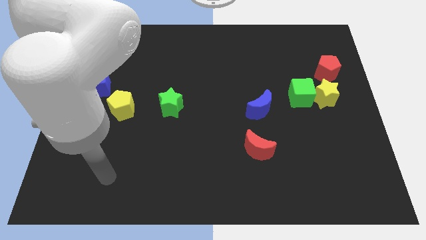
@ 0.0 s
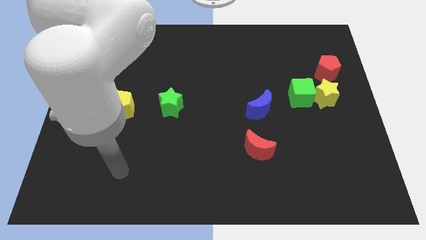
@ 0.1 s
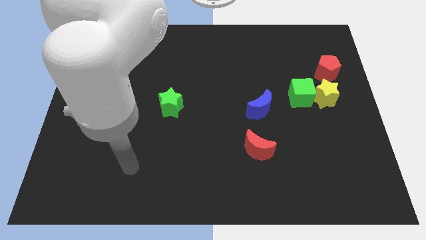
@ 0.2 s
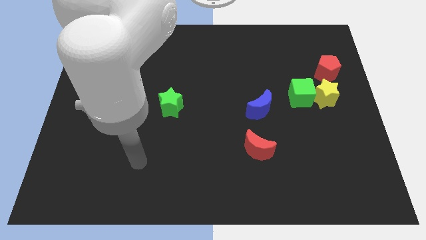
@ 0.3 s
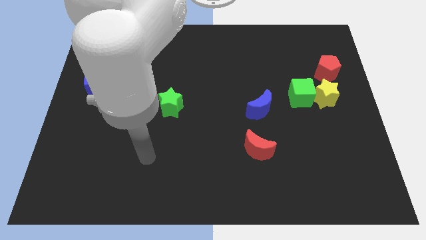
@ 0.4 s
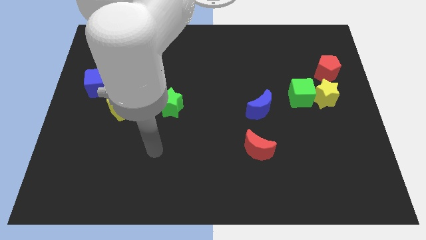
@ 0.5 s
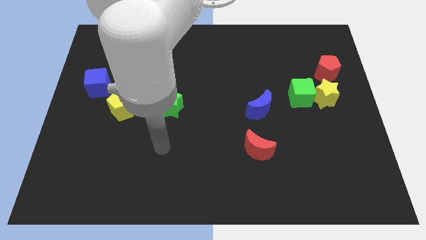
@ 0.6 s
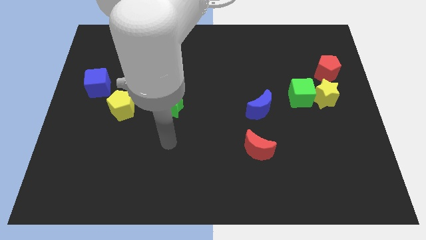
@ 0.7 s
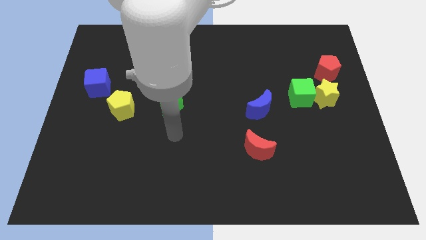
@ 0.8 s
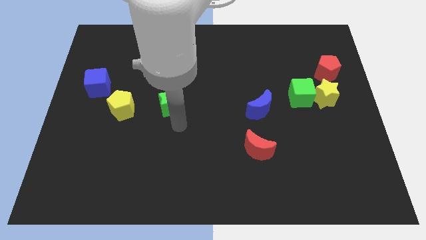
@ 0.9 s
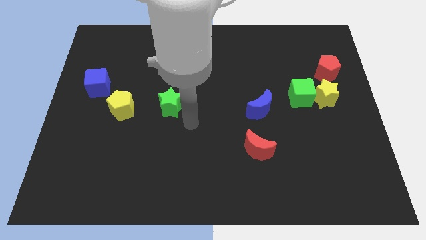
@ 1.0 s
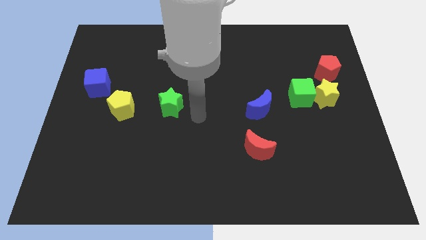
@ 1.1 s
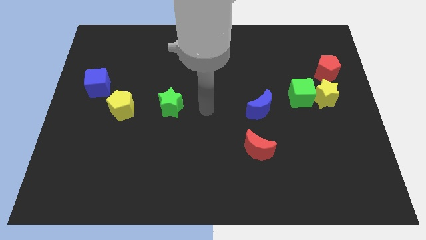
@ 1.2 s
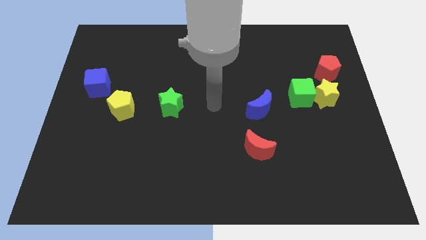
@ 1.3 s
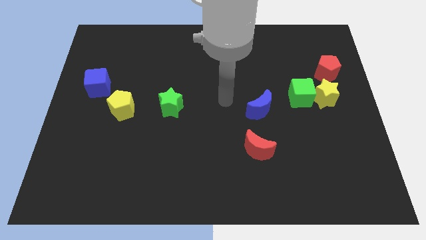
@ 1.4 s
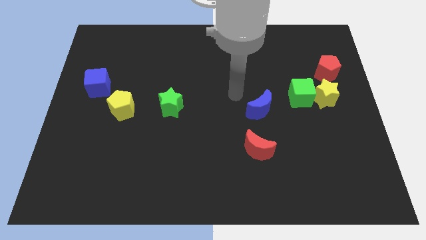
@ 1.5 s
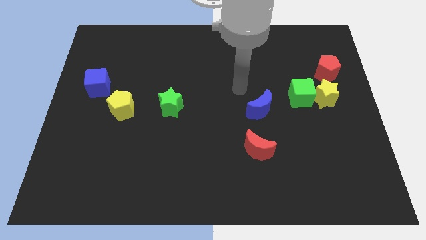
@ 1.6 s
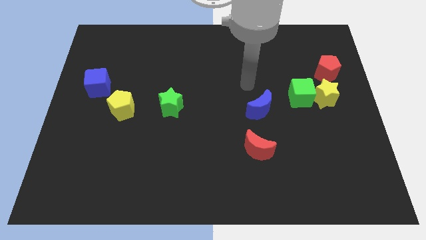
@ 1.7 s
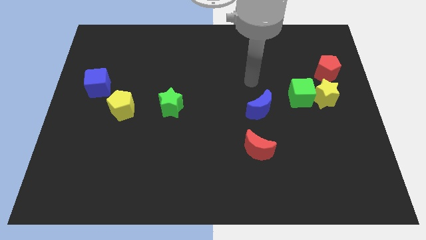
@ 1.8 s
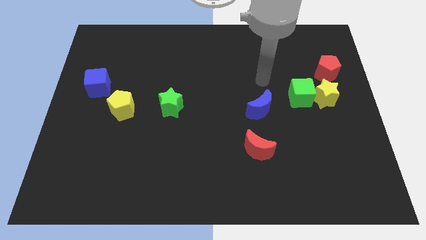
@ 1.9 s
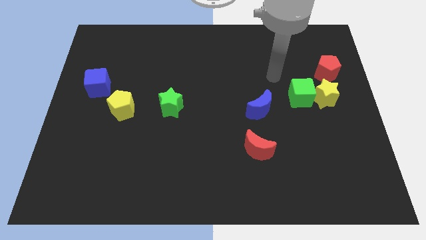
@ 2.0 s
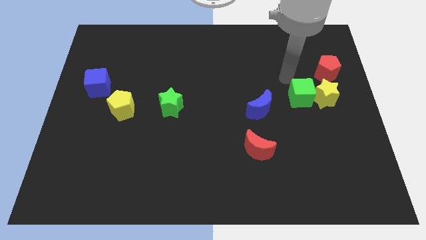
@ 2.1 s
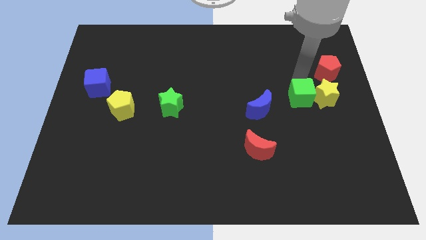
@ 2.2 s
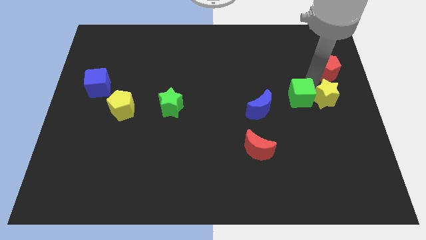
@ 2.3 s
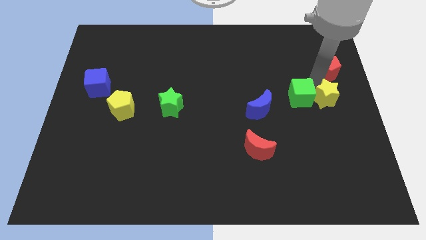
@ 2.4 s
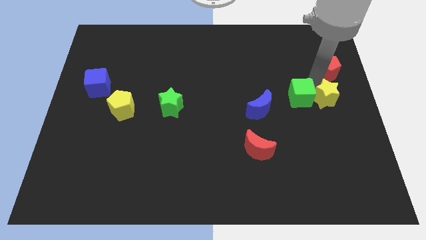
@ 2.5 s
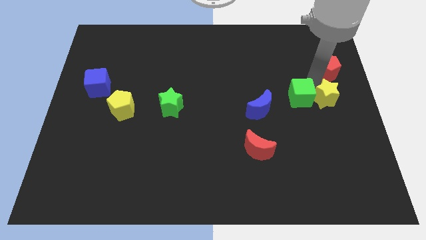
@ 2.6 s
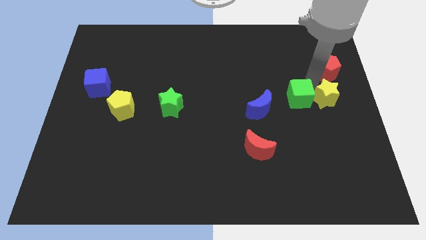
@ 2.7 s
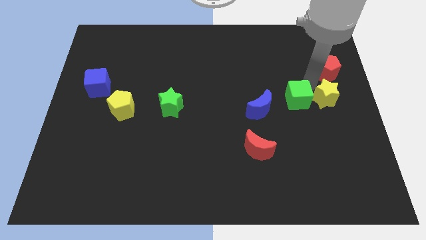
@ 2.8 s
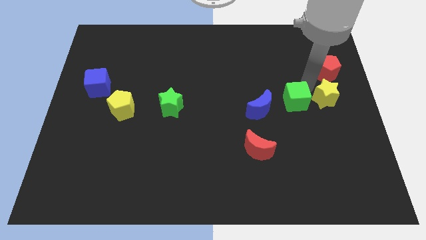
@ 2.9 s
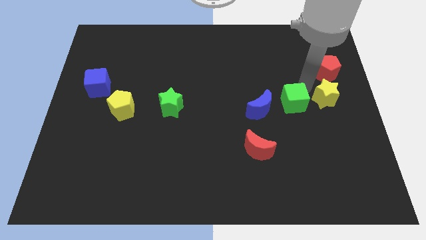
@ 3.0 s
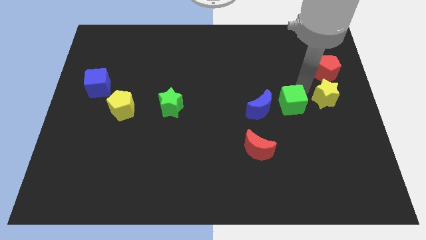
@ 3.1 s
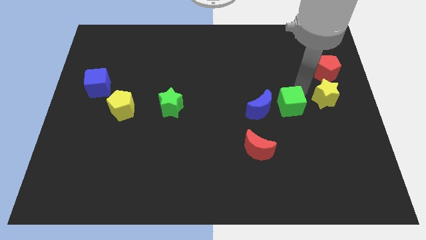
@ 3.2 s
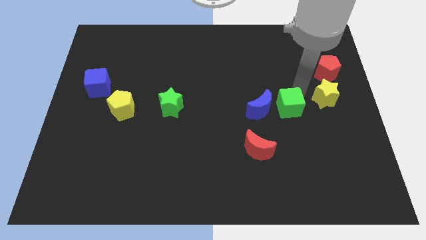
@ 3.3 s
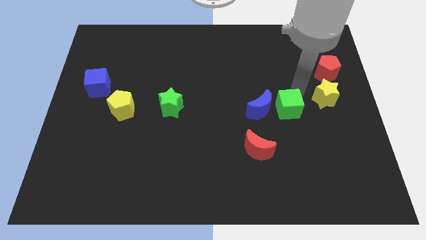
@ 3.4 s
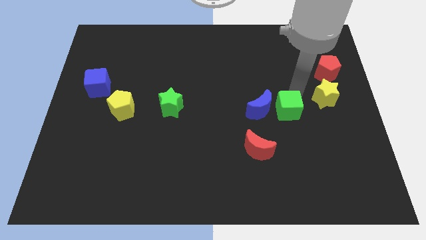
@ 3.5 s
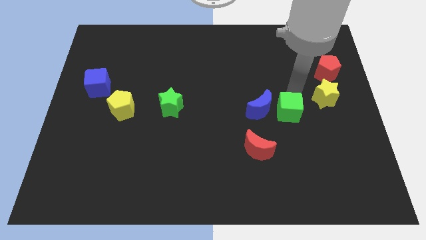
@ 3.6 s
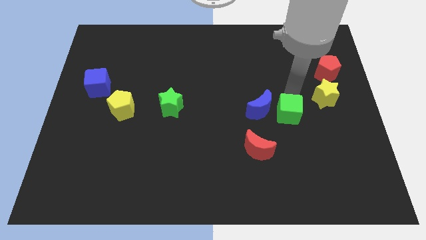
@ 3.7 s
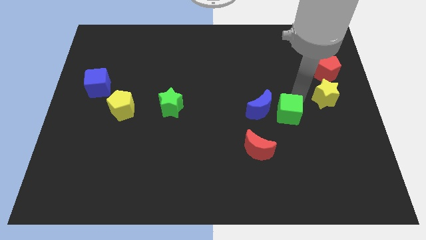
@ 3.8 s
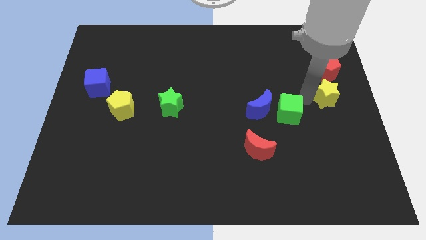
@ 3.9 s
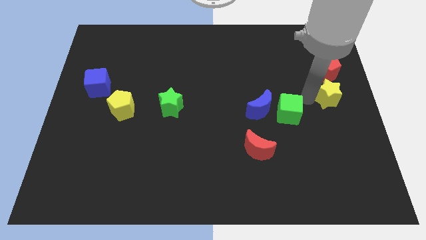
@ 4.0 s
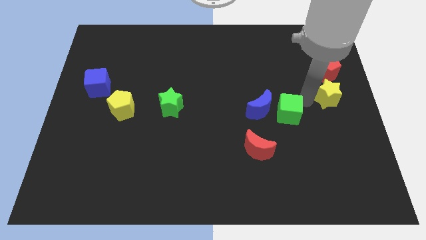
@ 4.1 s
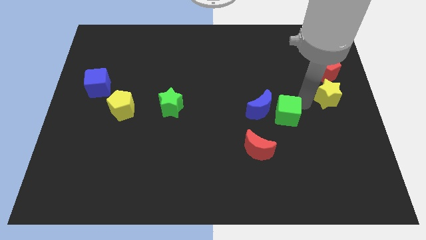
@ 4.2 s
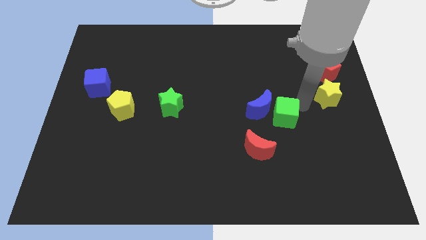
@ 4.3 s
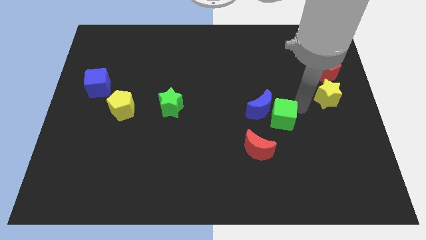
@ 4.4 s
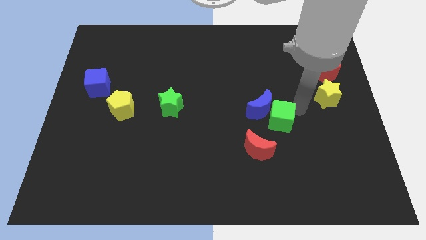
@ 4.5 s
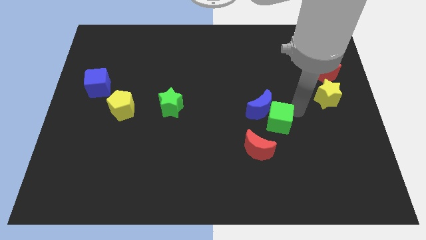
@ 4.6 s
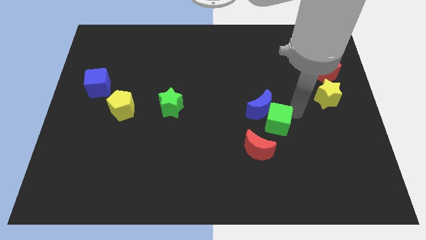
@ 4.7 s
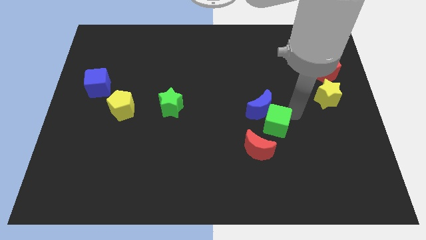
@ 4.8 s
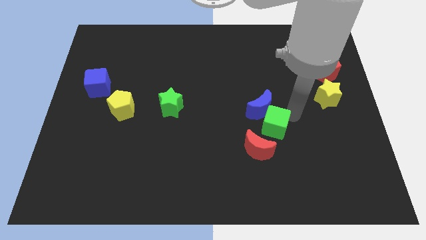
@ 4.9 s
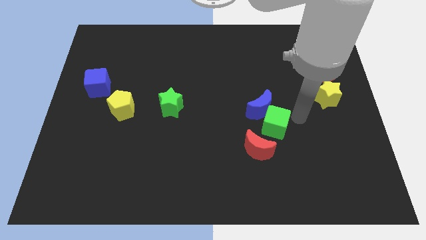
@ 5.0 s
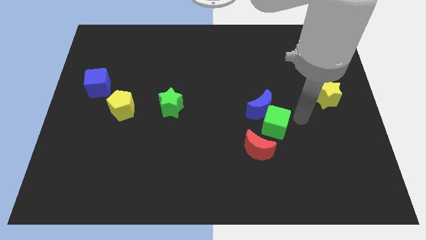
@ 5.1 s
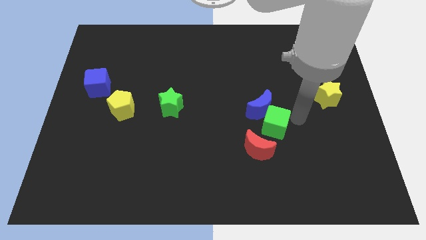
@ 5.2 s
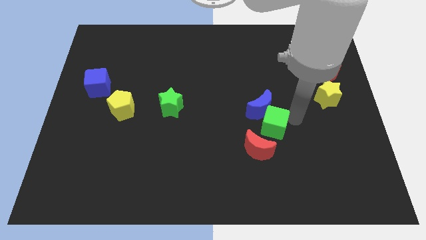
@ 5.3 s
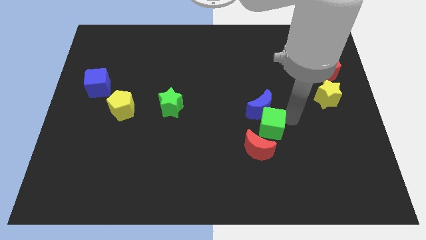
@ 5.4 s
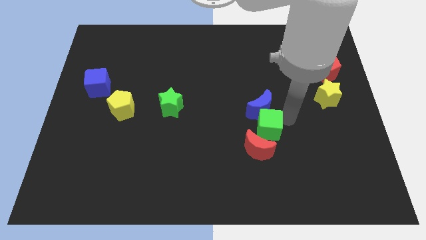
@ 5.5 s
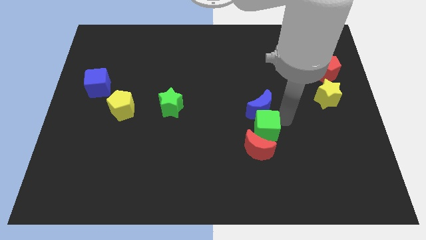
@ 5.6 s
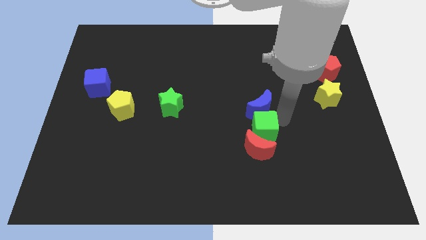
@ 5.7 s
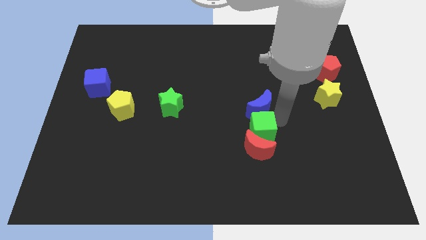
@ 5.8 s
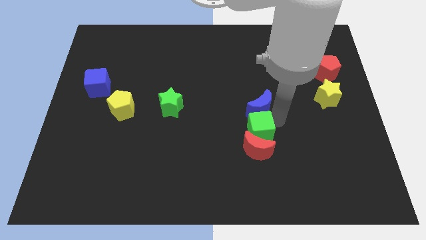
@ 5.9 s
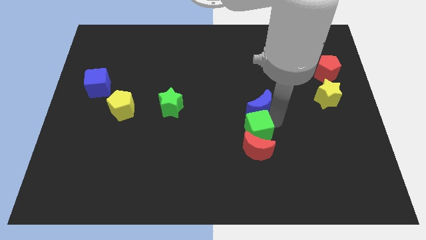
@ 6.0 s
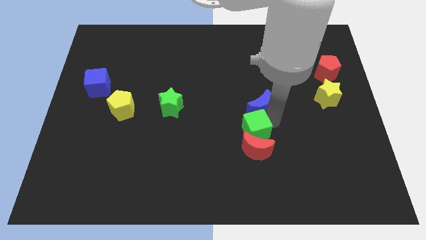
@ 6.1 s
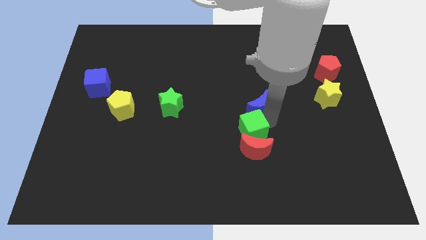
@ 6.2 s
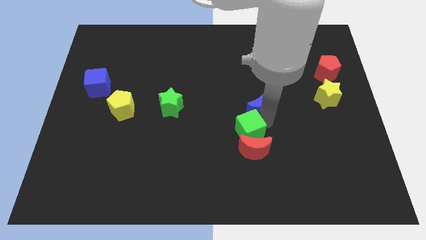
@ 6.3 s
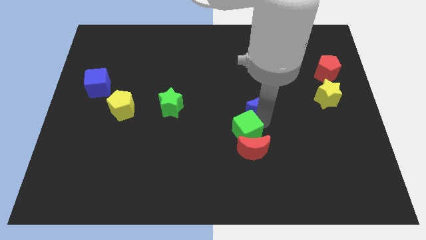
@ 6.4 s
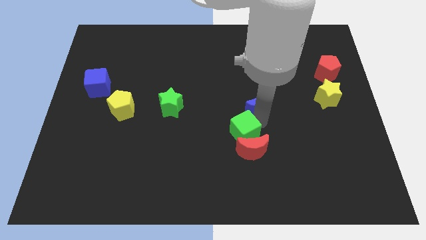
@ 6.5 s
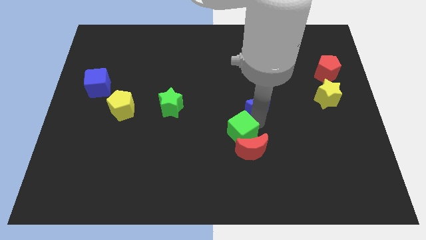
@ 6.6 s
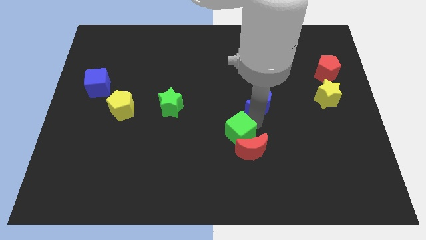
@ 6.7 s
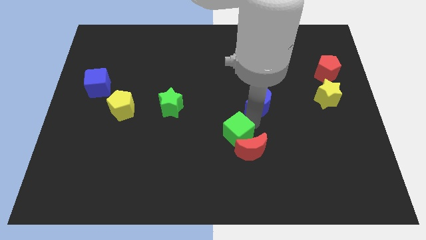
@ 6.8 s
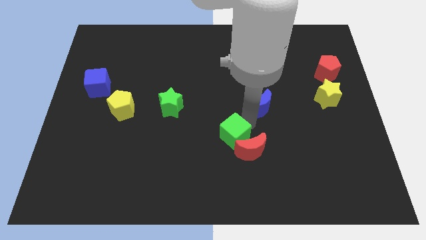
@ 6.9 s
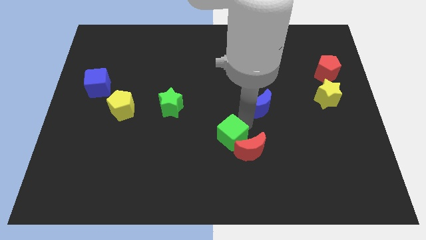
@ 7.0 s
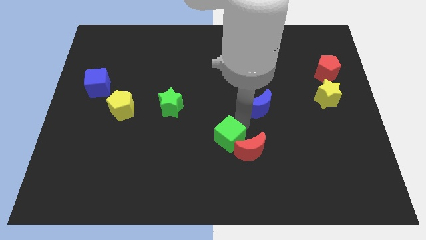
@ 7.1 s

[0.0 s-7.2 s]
slide the green cube downwards and to the left

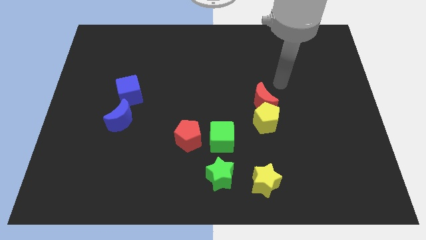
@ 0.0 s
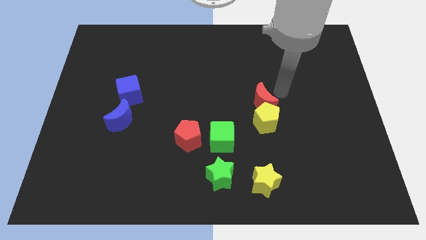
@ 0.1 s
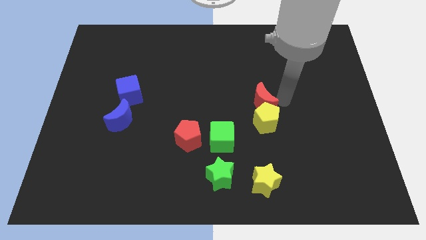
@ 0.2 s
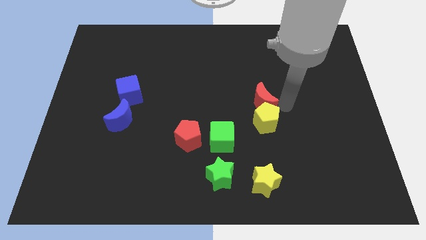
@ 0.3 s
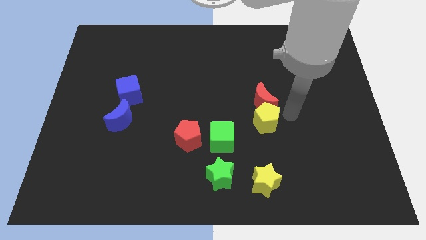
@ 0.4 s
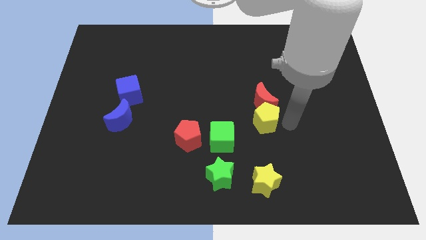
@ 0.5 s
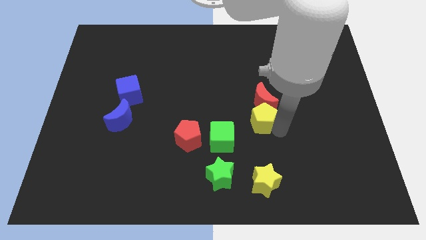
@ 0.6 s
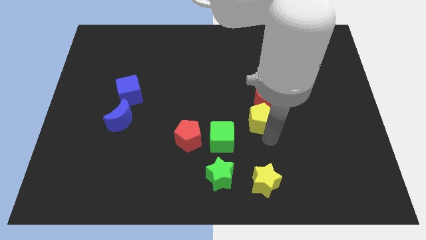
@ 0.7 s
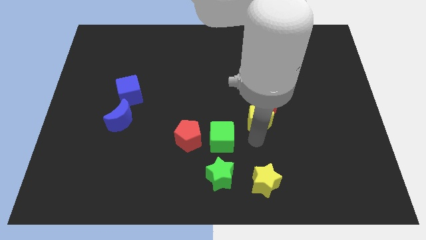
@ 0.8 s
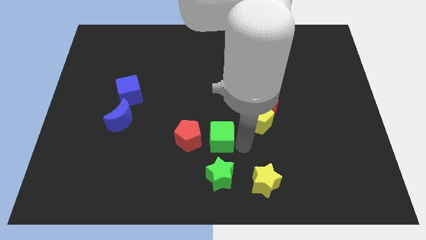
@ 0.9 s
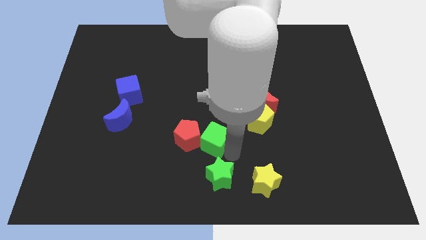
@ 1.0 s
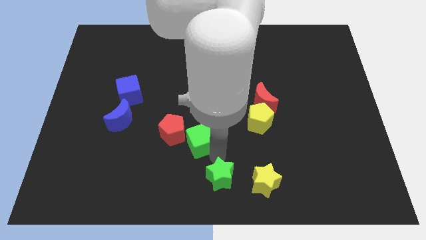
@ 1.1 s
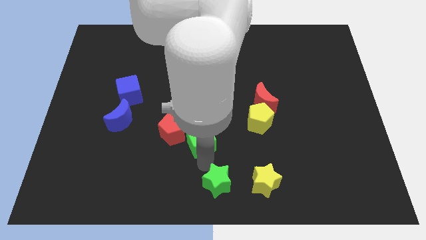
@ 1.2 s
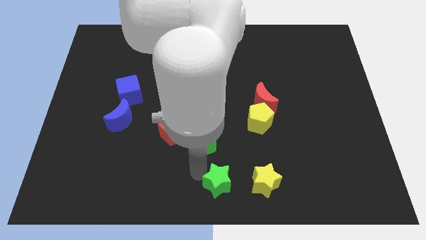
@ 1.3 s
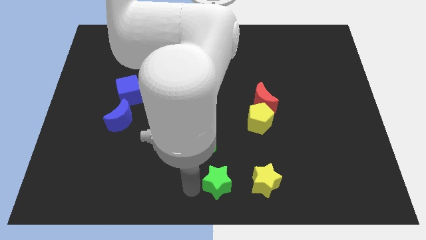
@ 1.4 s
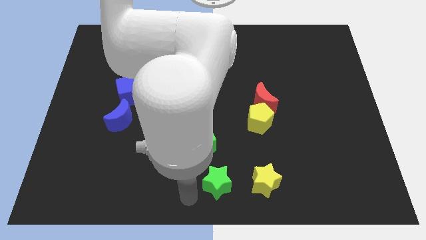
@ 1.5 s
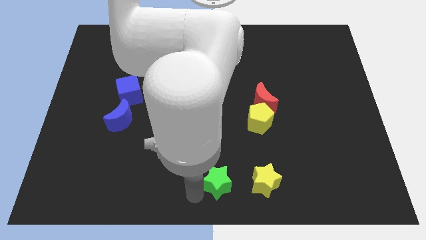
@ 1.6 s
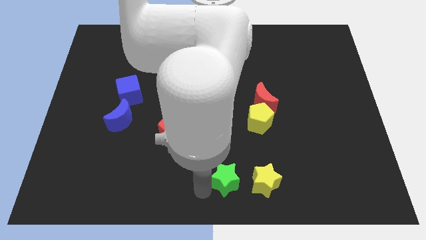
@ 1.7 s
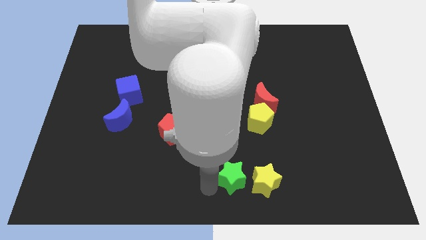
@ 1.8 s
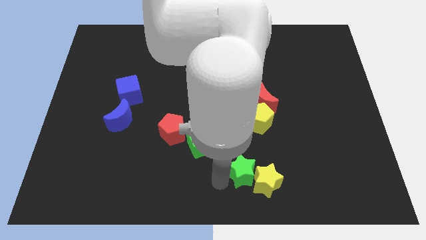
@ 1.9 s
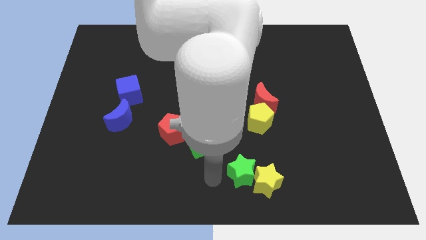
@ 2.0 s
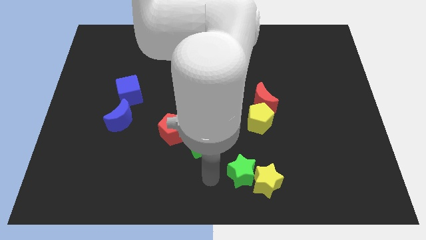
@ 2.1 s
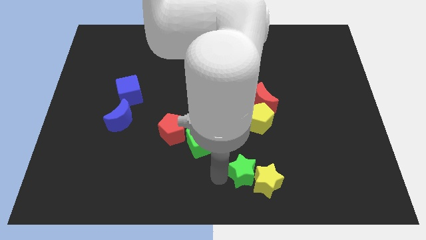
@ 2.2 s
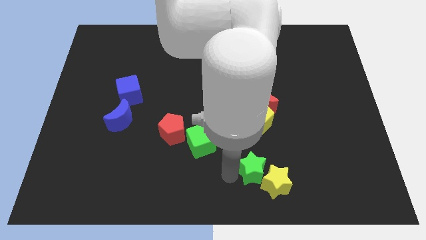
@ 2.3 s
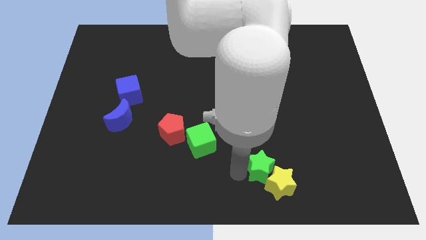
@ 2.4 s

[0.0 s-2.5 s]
slide the green star to the right a little
